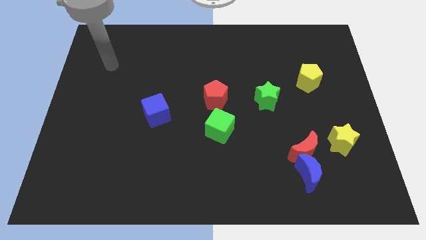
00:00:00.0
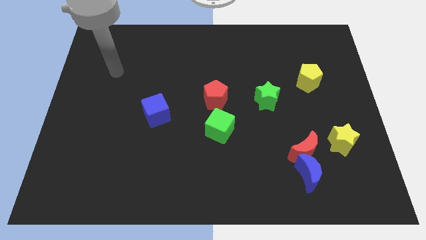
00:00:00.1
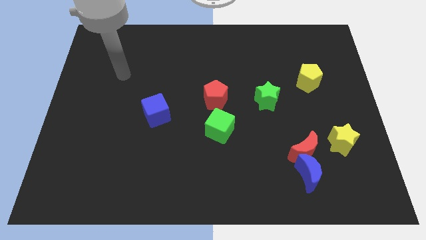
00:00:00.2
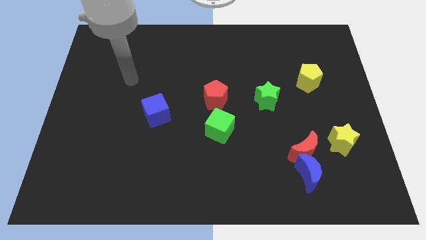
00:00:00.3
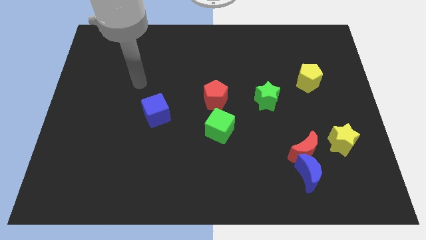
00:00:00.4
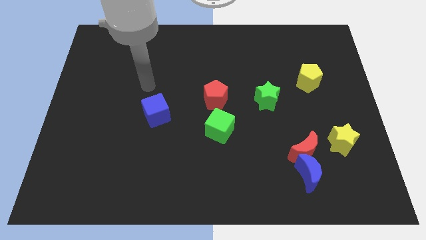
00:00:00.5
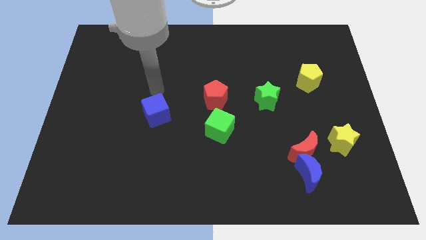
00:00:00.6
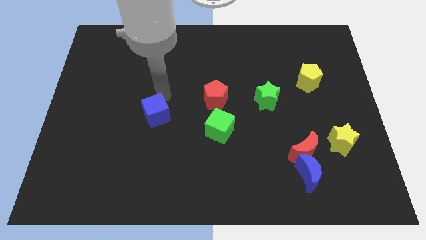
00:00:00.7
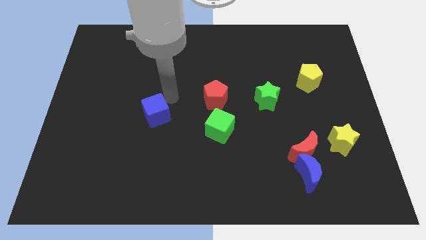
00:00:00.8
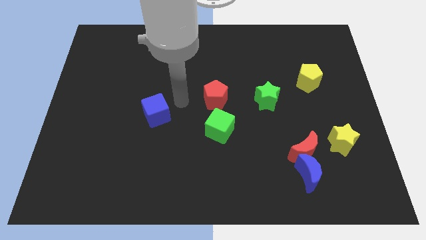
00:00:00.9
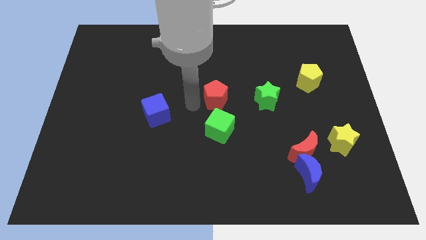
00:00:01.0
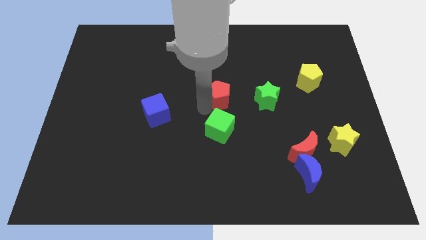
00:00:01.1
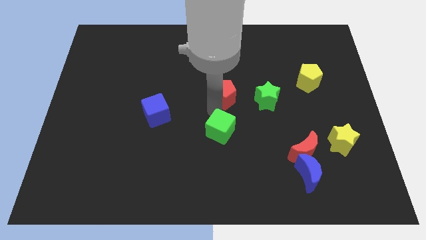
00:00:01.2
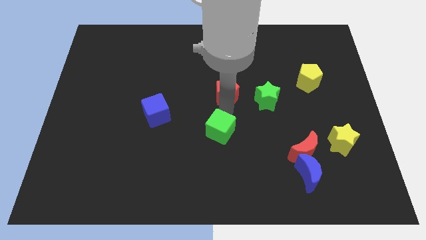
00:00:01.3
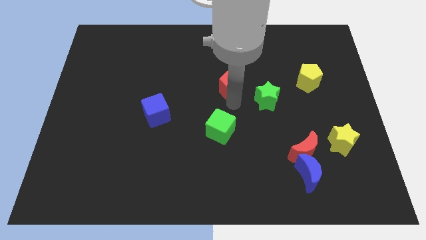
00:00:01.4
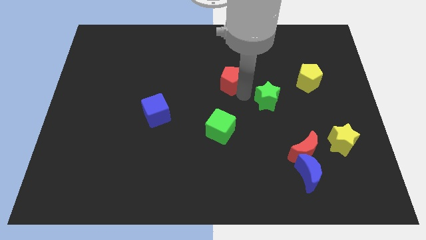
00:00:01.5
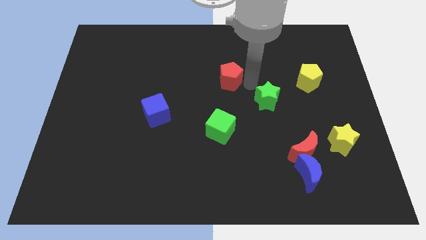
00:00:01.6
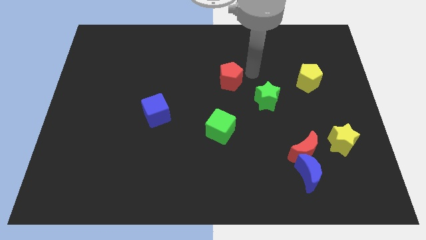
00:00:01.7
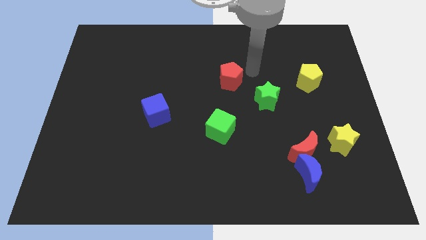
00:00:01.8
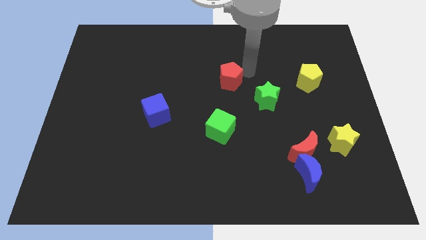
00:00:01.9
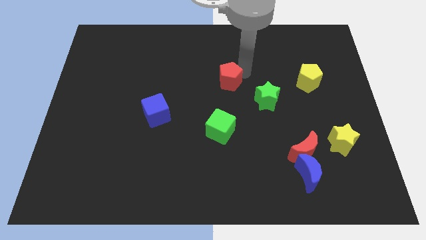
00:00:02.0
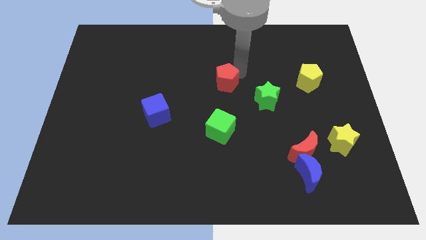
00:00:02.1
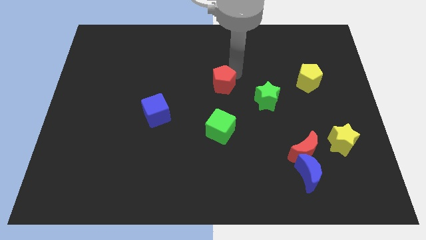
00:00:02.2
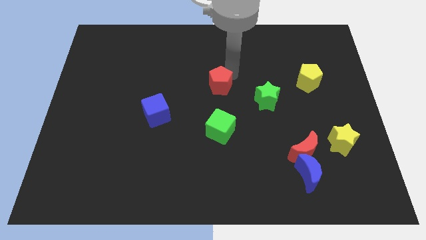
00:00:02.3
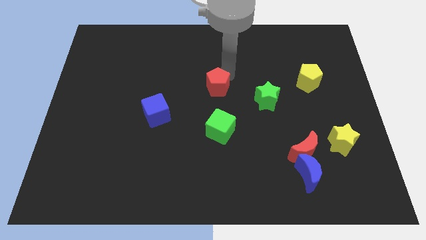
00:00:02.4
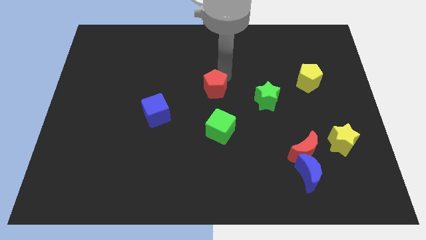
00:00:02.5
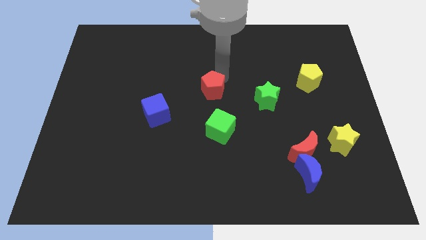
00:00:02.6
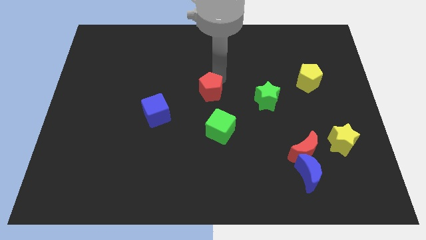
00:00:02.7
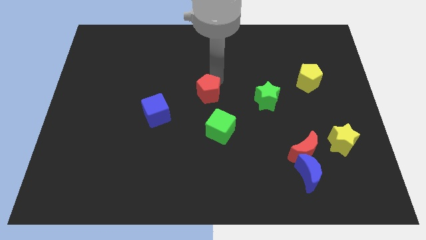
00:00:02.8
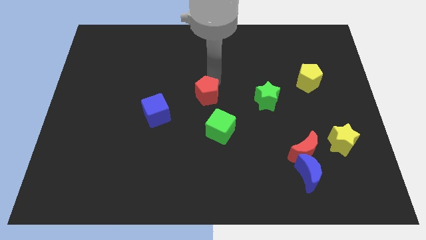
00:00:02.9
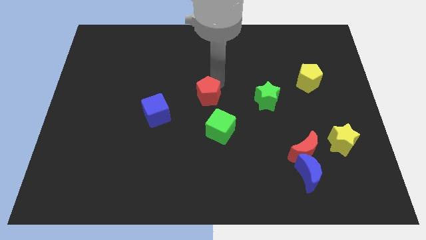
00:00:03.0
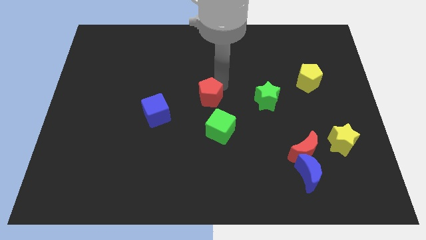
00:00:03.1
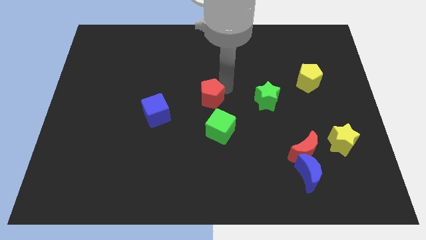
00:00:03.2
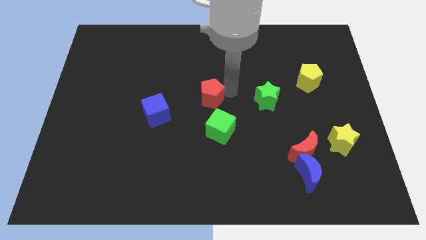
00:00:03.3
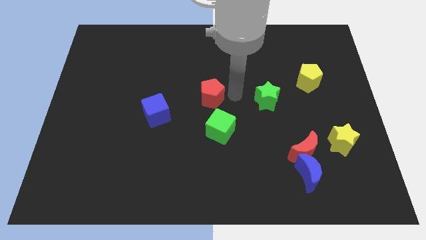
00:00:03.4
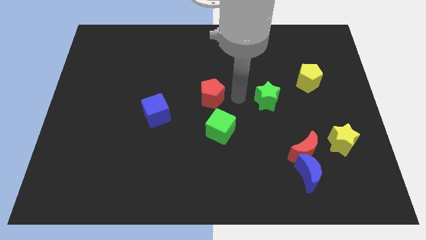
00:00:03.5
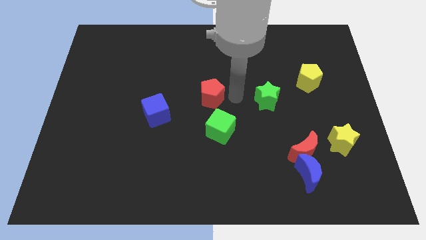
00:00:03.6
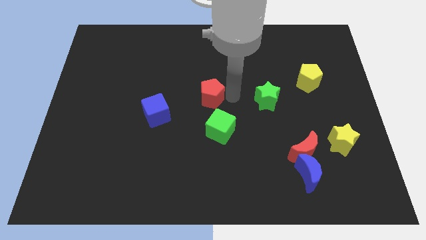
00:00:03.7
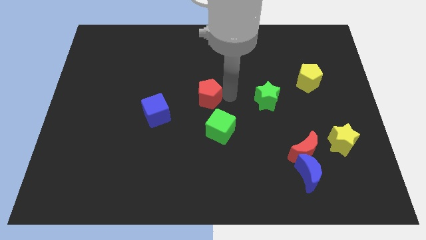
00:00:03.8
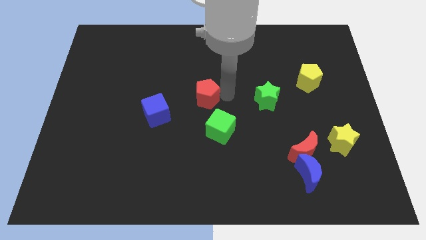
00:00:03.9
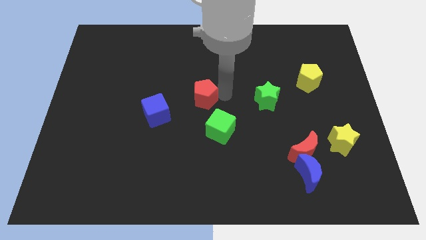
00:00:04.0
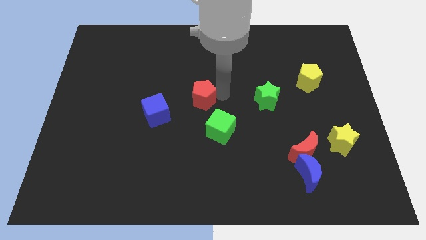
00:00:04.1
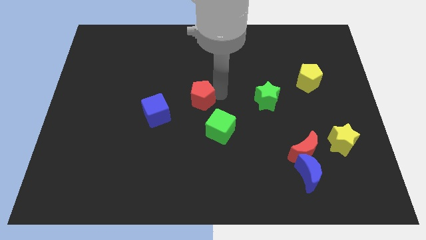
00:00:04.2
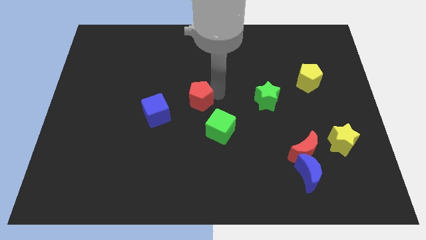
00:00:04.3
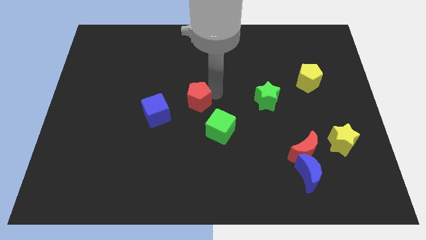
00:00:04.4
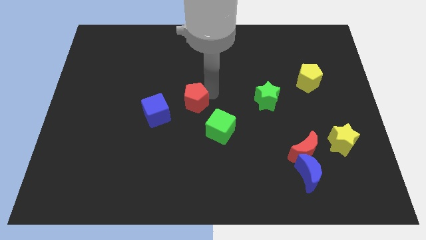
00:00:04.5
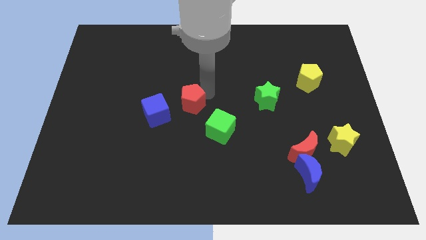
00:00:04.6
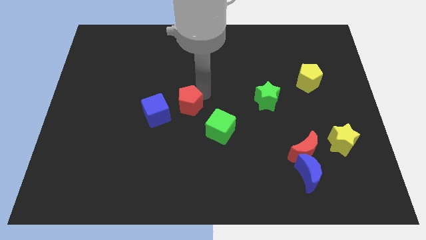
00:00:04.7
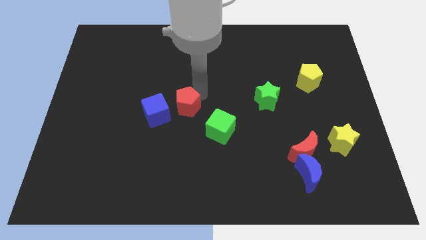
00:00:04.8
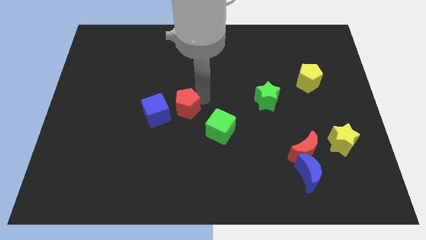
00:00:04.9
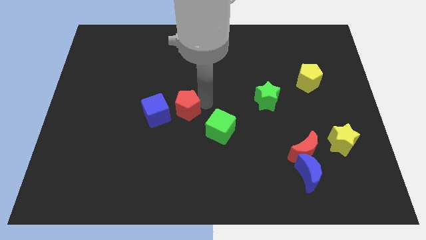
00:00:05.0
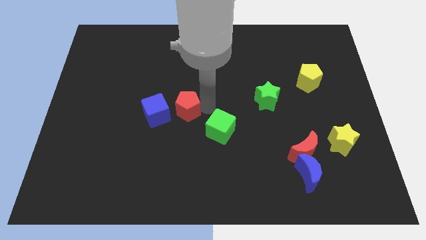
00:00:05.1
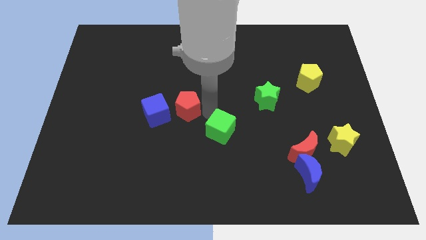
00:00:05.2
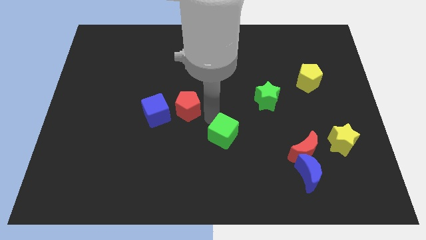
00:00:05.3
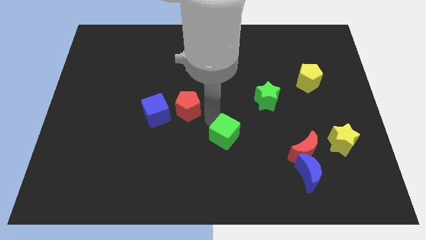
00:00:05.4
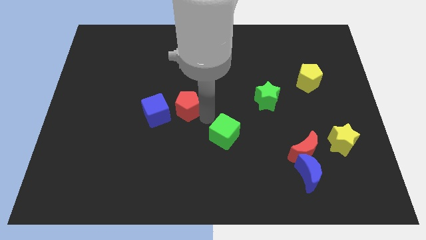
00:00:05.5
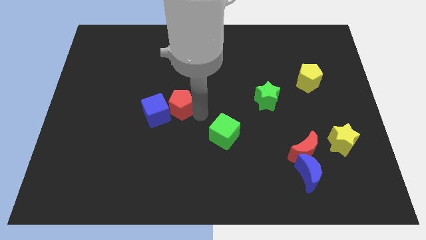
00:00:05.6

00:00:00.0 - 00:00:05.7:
push the red pentagon left somewhat

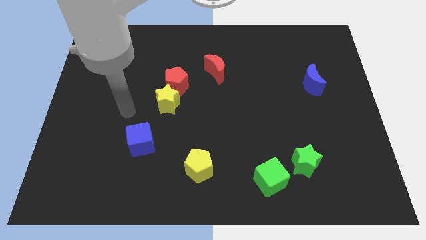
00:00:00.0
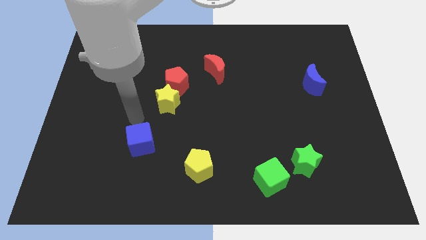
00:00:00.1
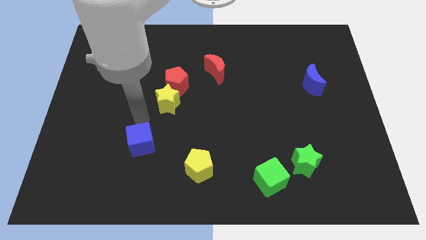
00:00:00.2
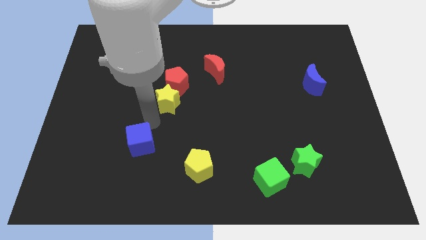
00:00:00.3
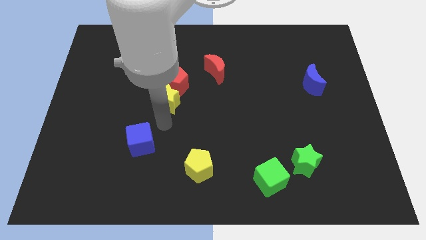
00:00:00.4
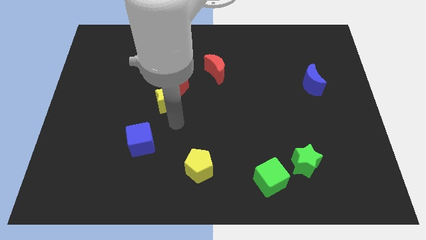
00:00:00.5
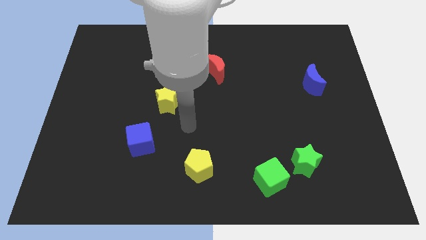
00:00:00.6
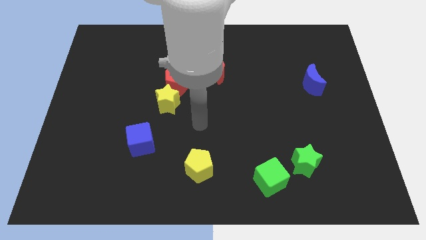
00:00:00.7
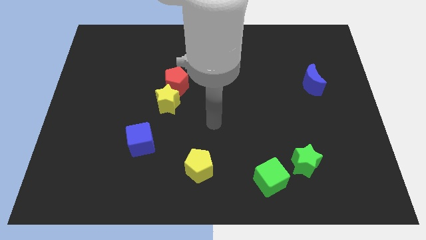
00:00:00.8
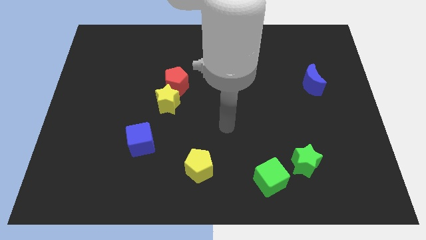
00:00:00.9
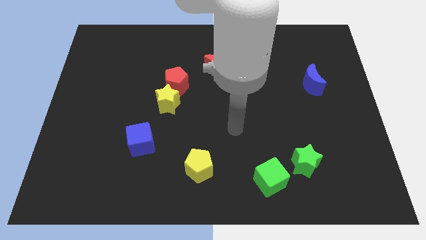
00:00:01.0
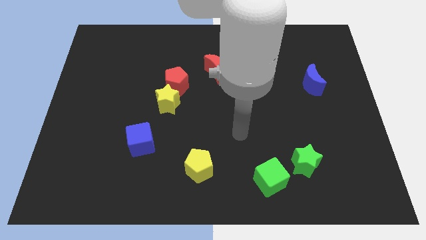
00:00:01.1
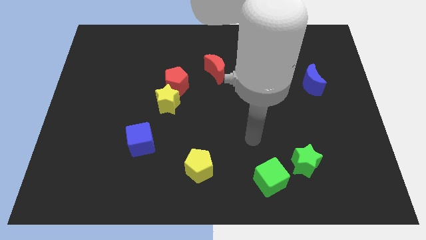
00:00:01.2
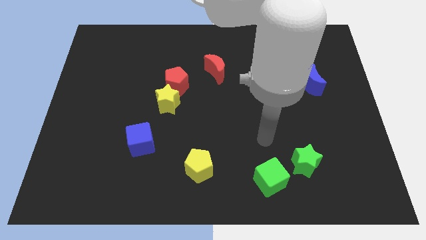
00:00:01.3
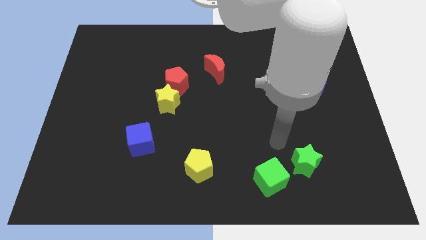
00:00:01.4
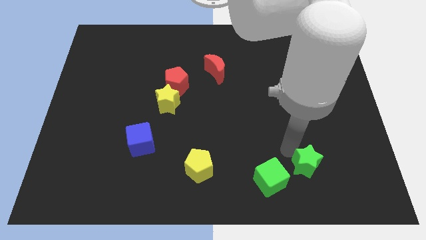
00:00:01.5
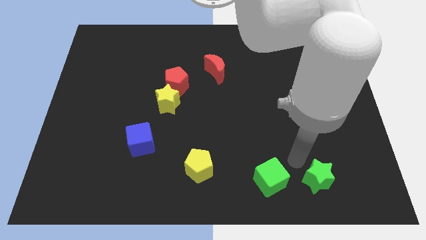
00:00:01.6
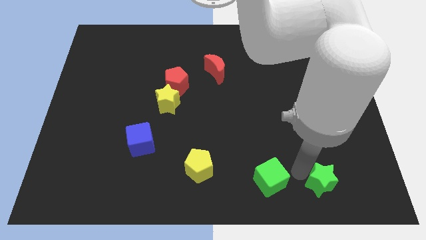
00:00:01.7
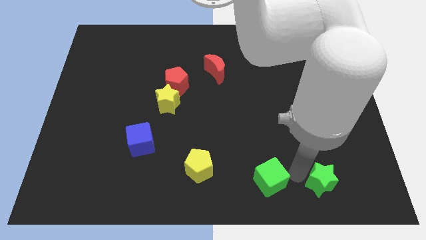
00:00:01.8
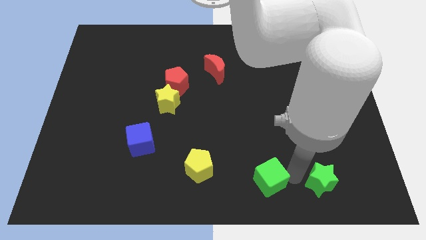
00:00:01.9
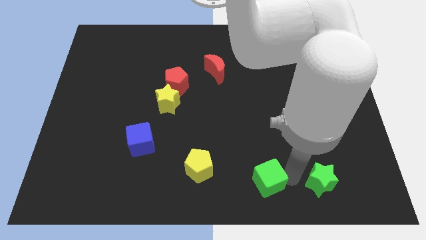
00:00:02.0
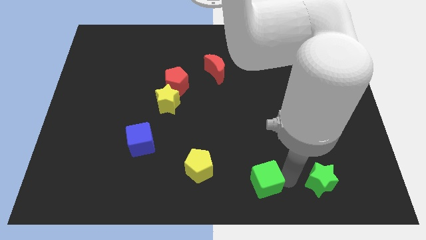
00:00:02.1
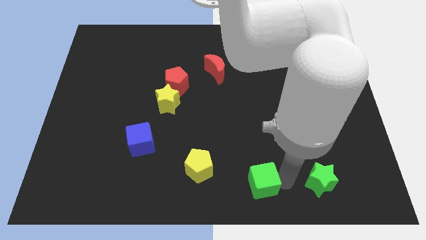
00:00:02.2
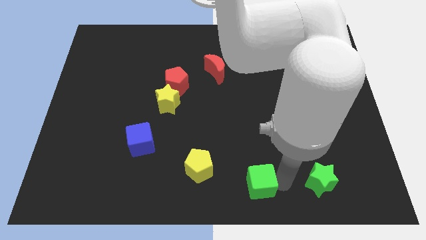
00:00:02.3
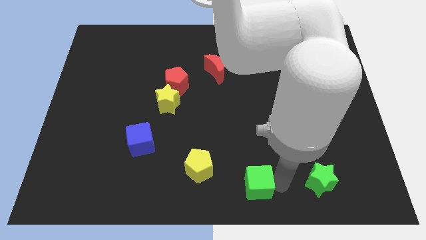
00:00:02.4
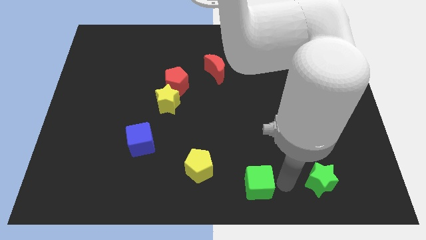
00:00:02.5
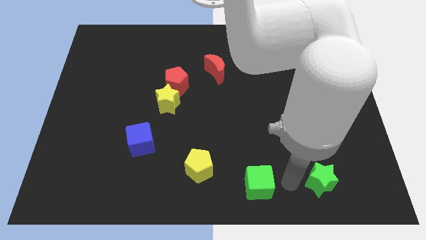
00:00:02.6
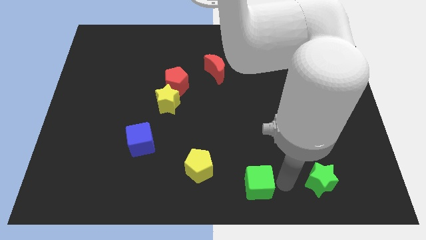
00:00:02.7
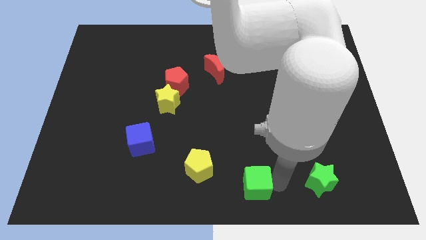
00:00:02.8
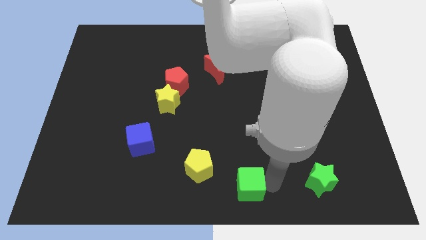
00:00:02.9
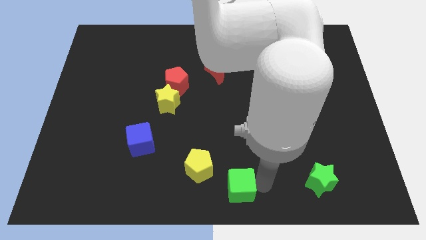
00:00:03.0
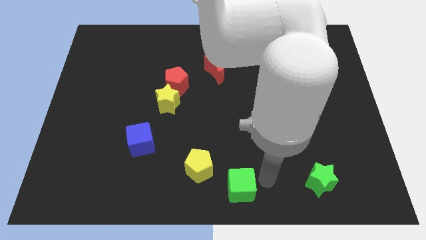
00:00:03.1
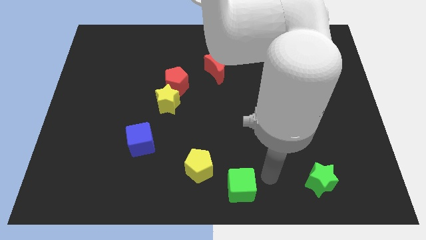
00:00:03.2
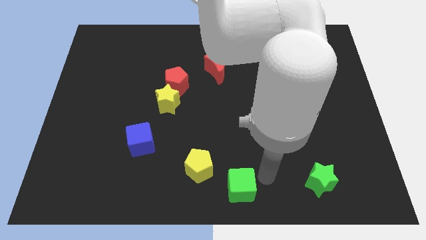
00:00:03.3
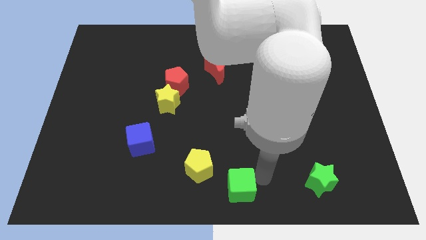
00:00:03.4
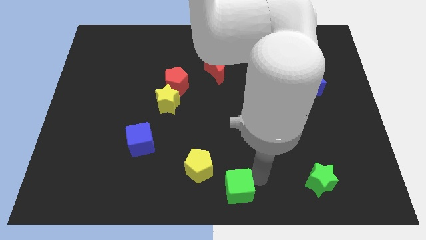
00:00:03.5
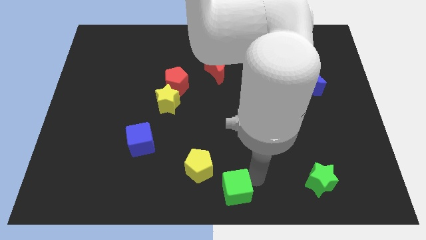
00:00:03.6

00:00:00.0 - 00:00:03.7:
slightly push the green cube left
